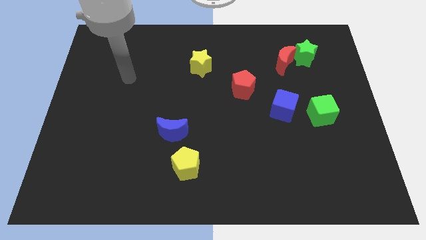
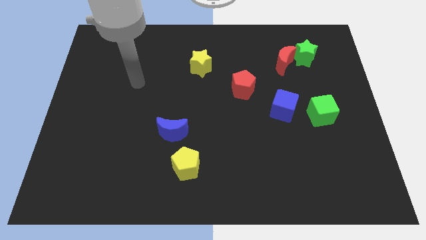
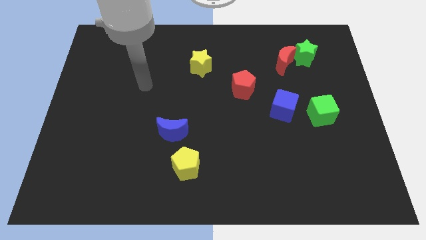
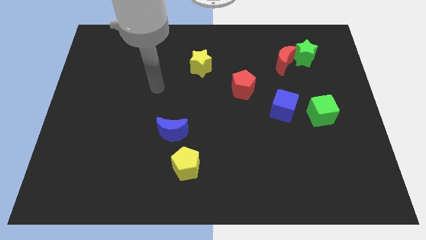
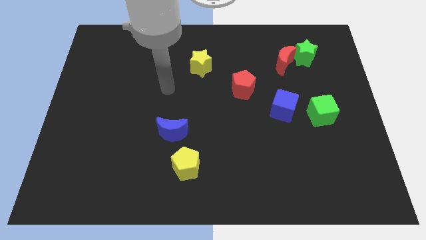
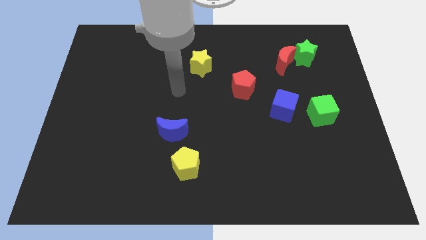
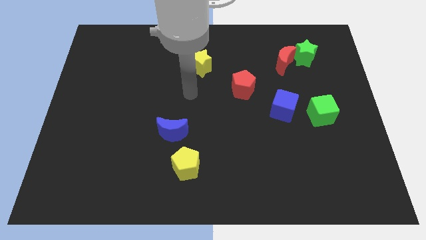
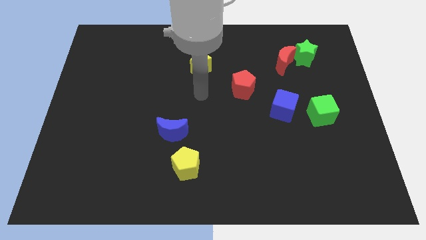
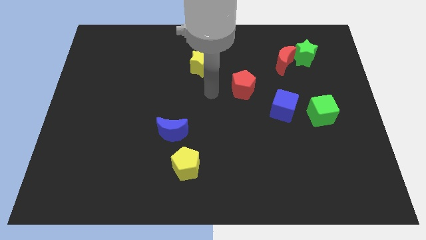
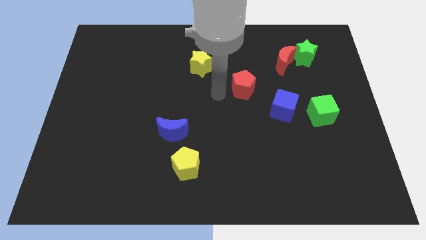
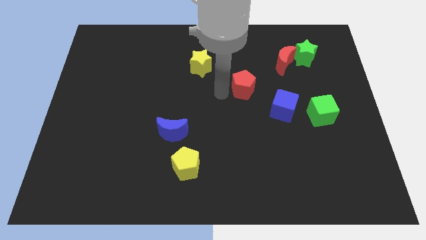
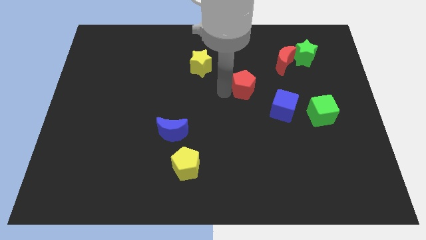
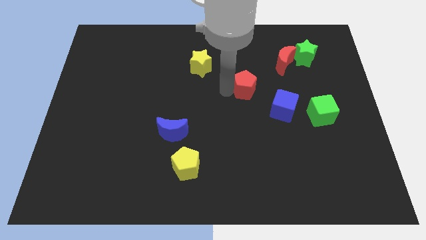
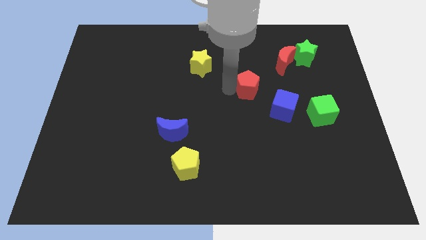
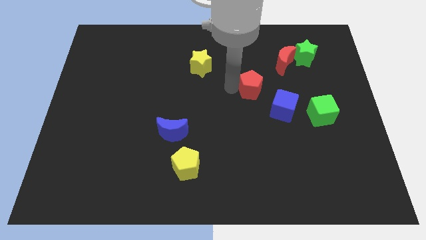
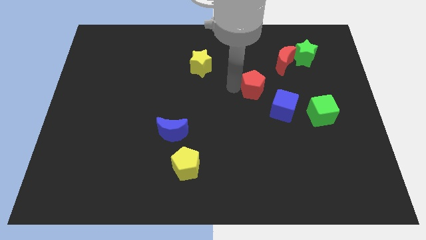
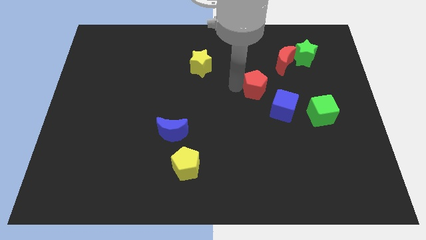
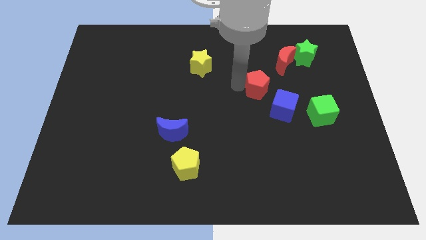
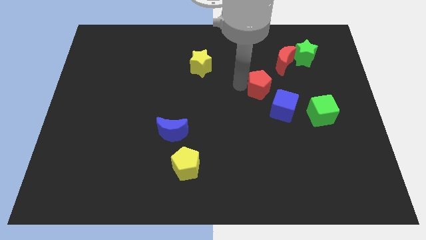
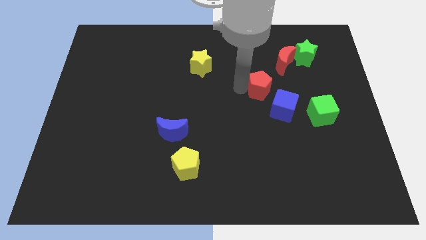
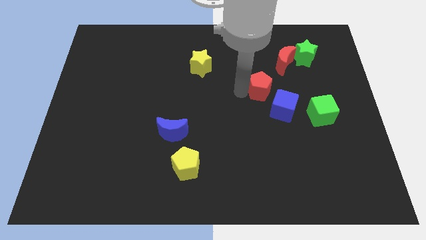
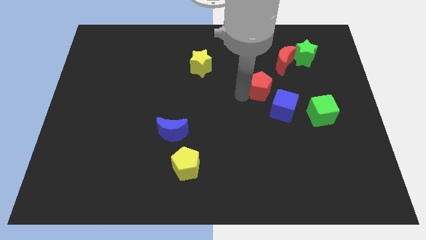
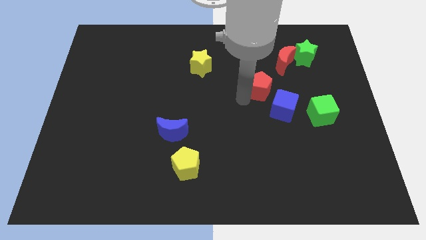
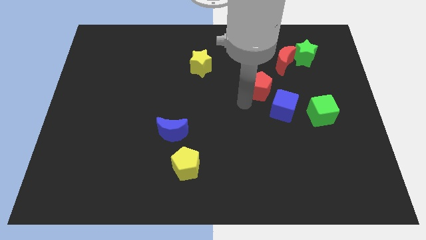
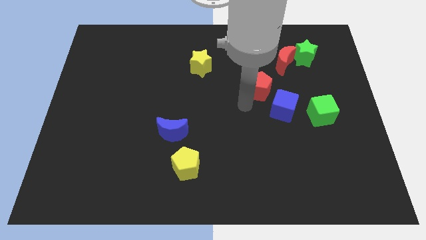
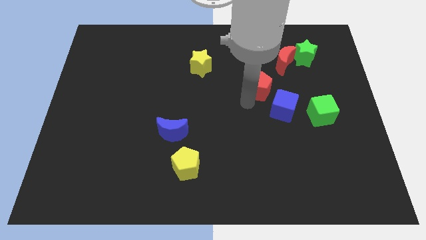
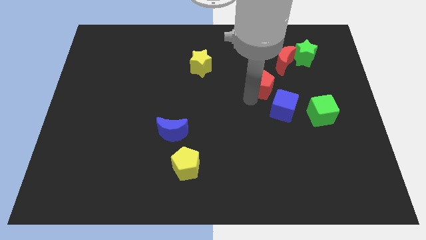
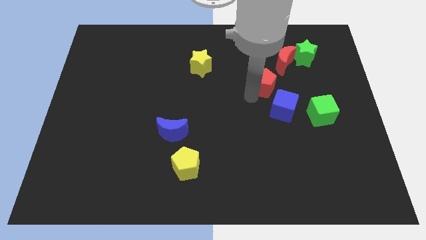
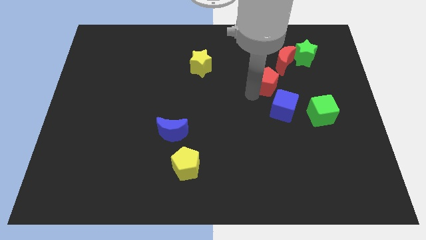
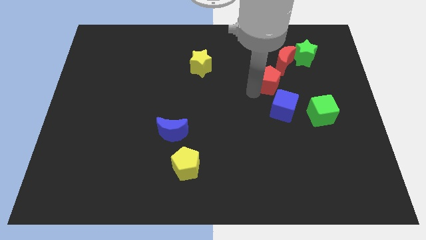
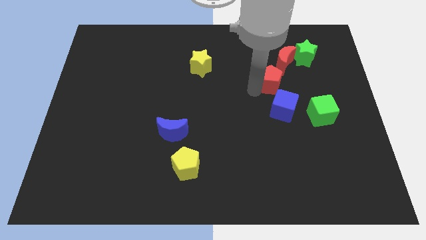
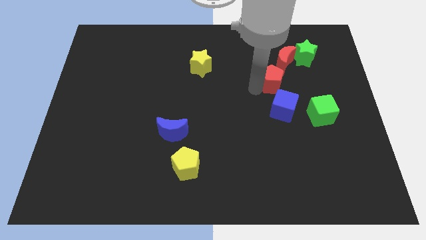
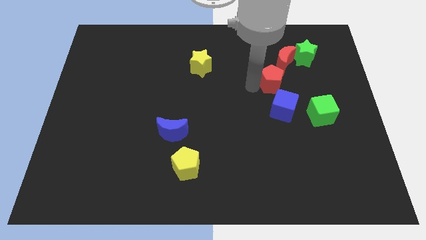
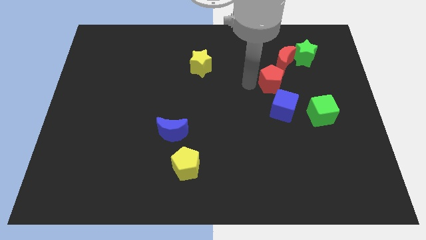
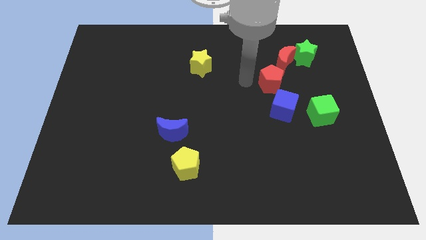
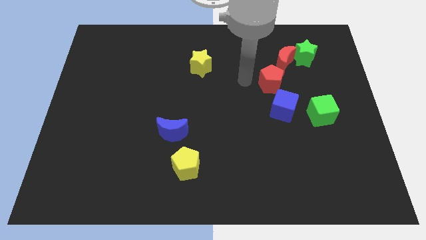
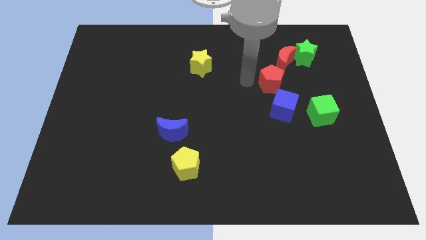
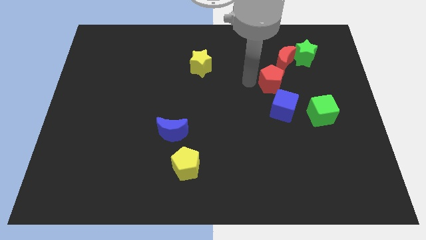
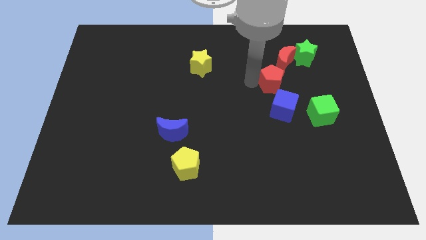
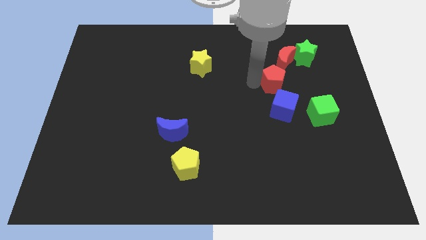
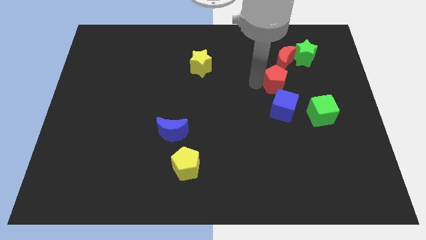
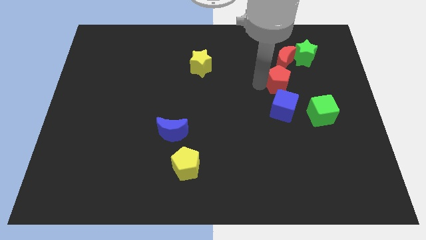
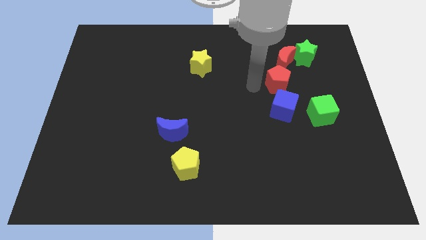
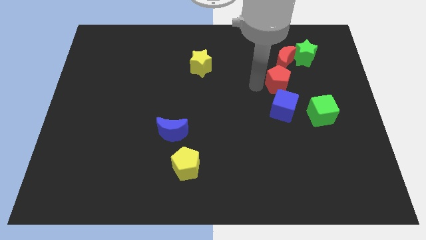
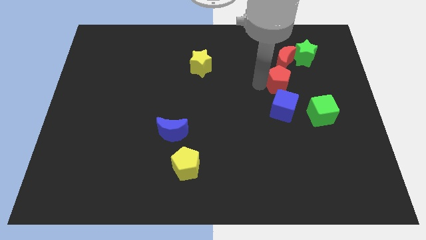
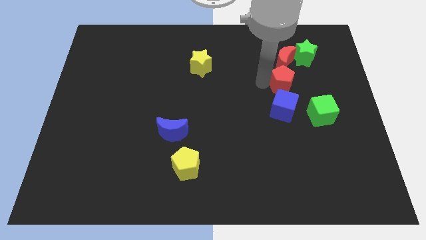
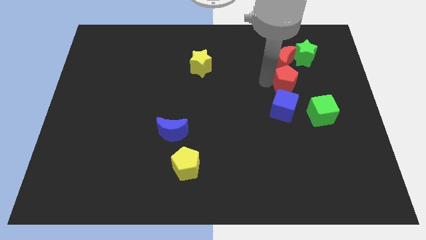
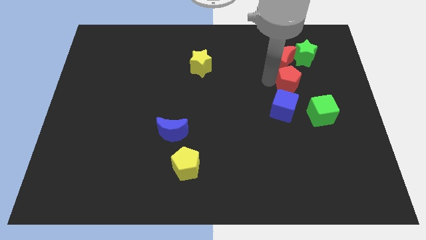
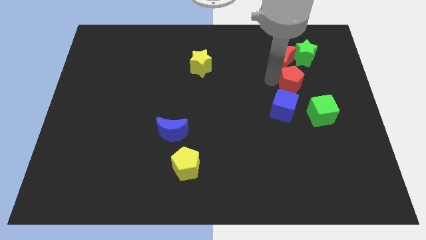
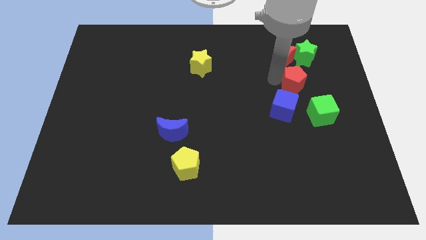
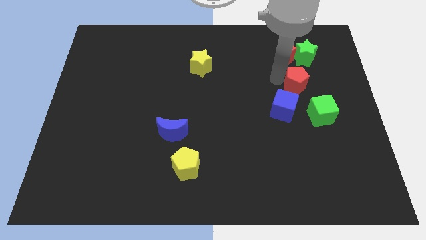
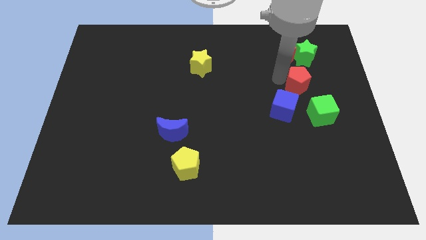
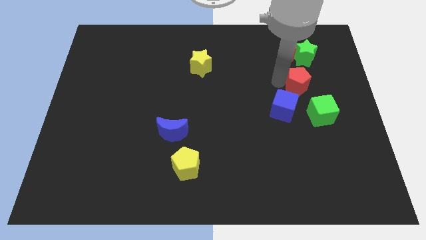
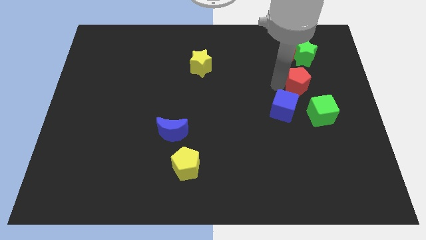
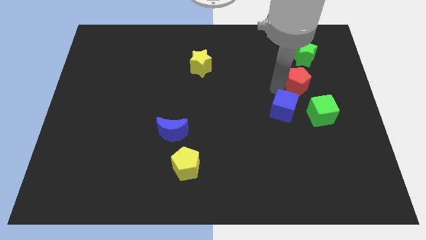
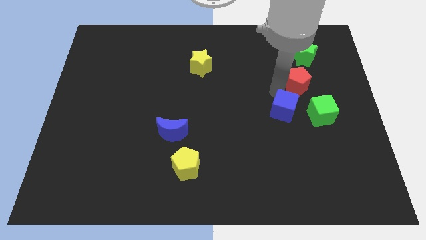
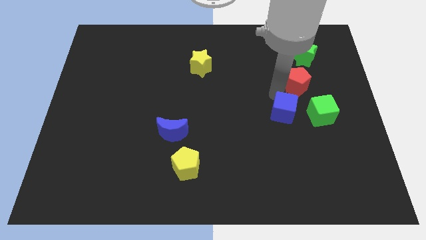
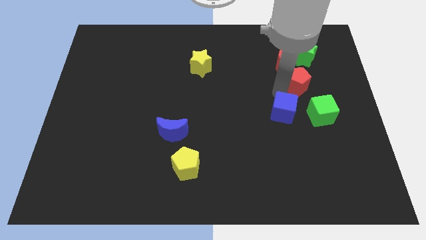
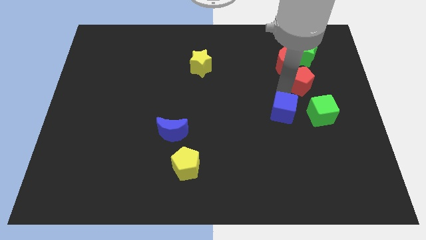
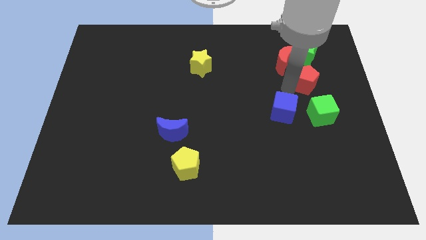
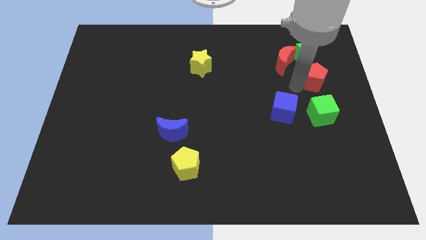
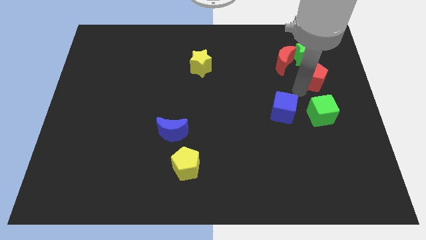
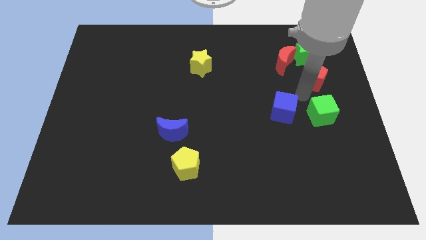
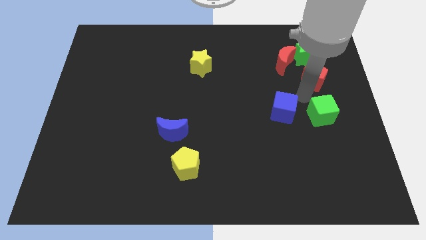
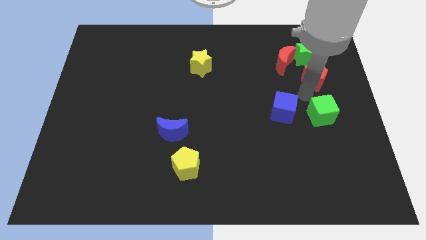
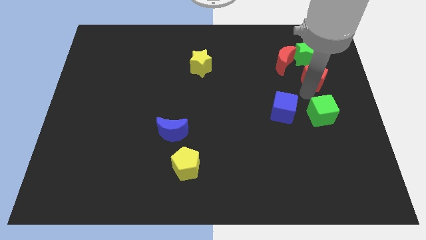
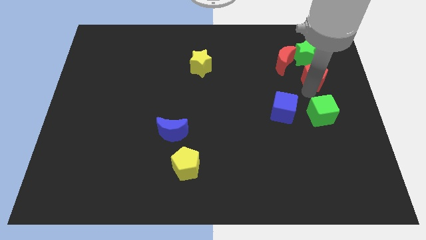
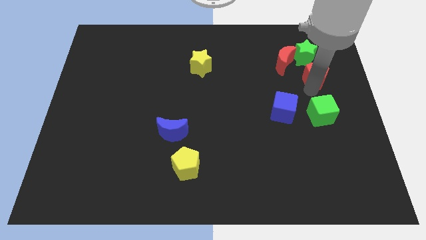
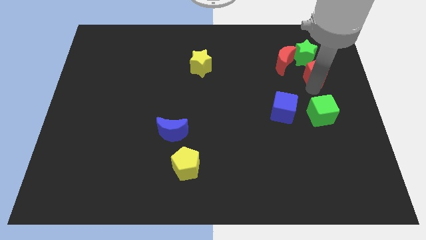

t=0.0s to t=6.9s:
slide the red pentagon to the right of the red moon

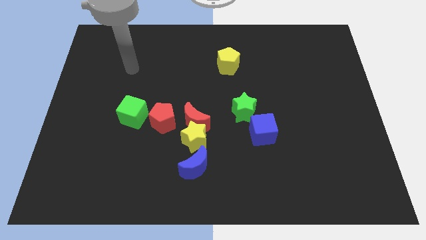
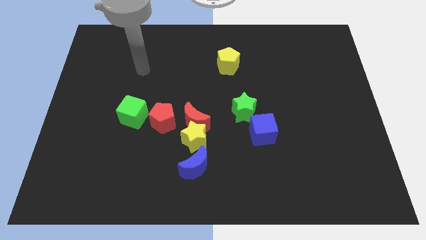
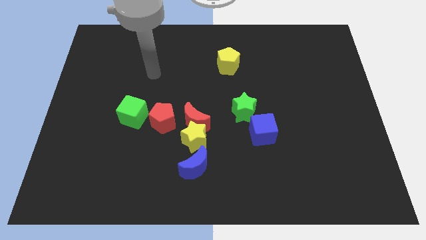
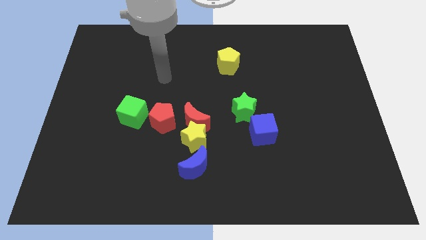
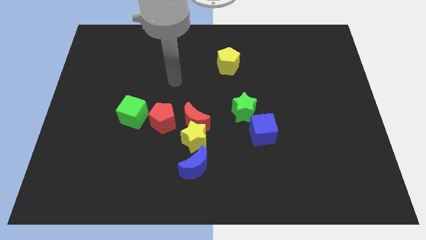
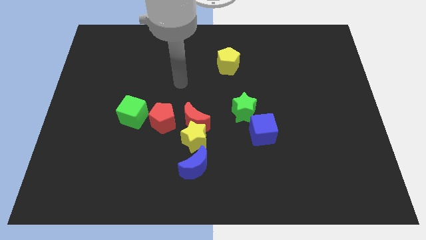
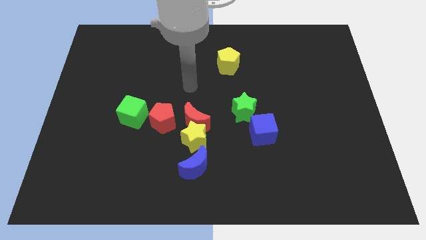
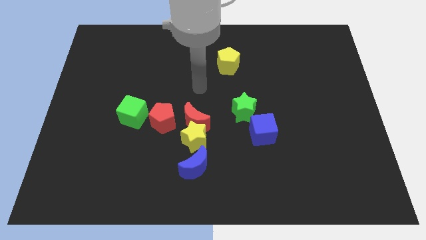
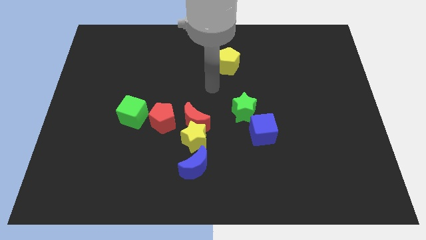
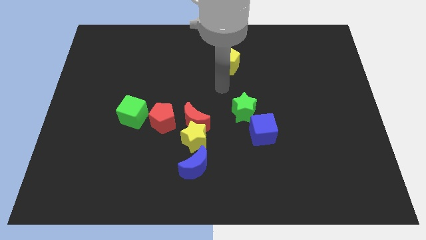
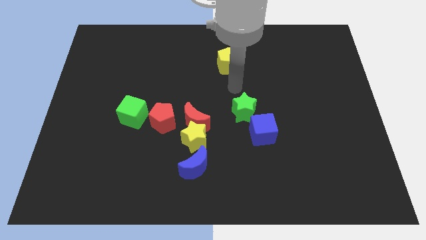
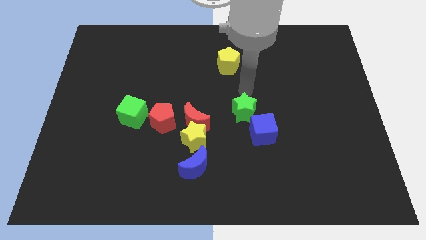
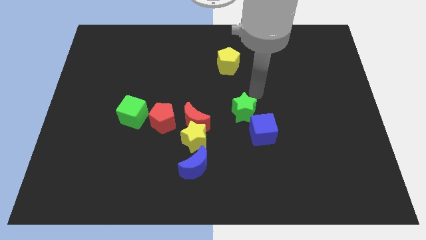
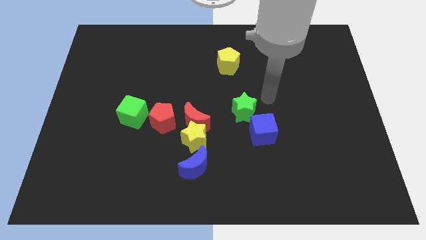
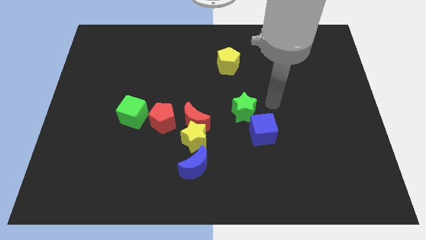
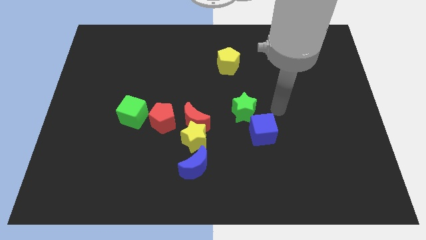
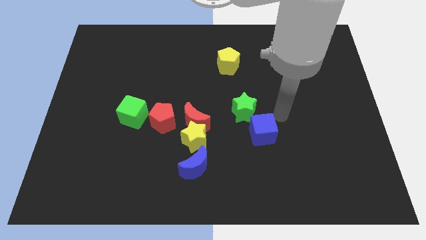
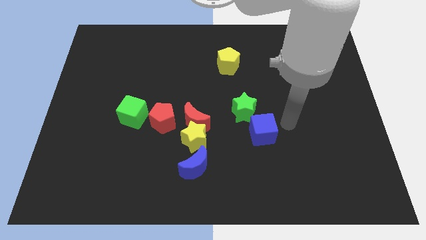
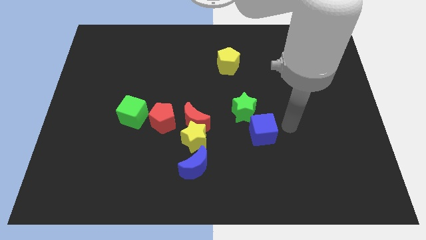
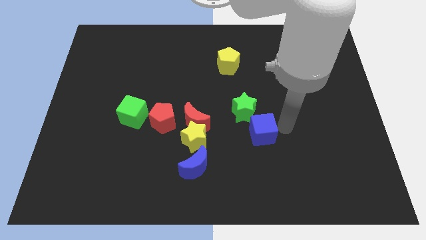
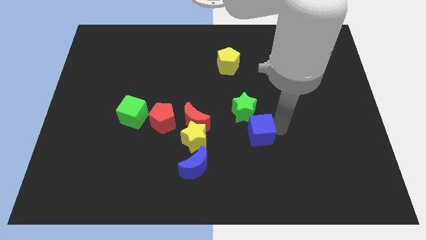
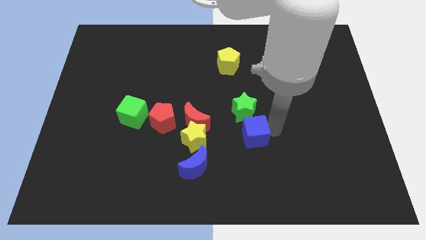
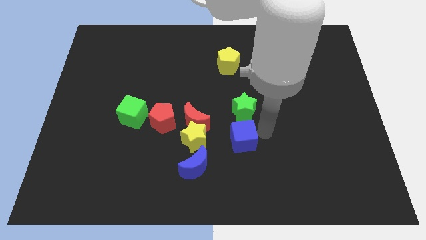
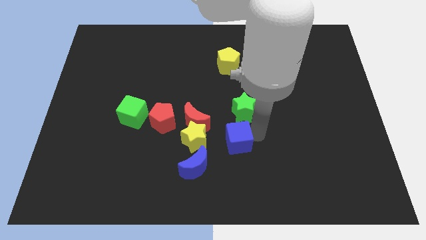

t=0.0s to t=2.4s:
push the blue cube to the bottom right side of the red moon
